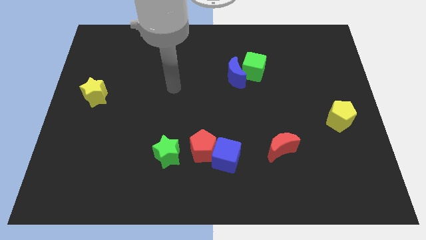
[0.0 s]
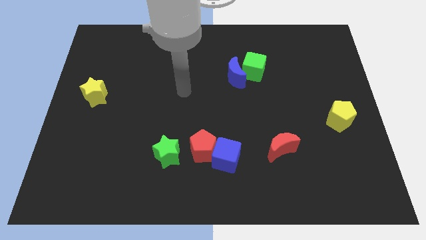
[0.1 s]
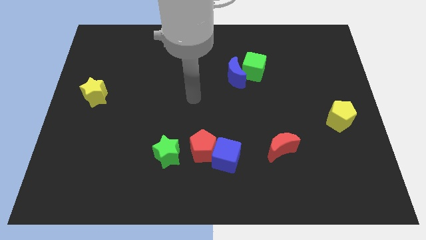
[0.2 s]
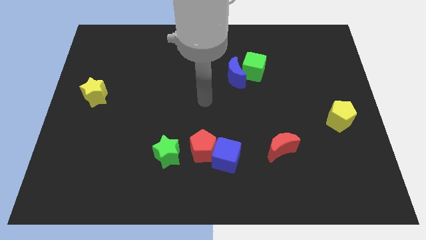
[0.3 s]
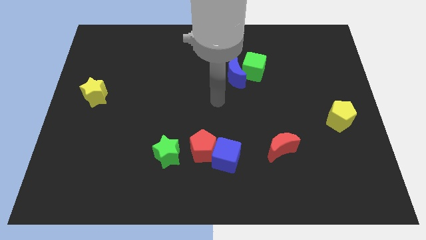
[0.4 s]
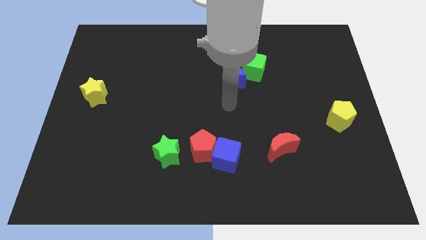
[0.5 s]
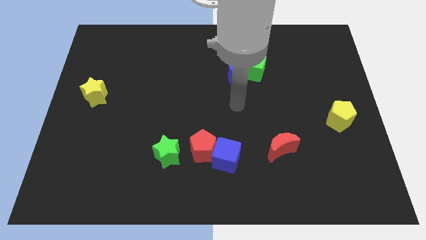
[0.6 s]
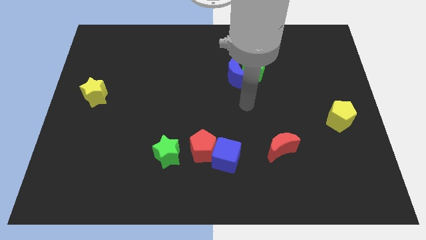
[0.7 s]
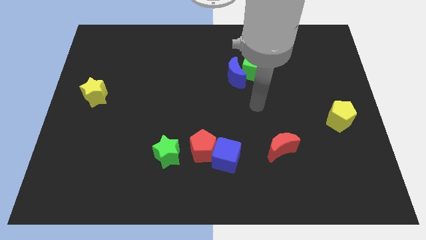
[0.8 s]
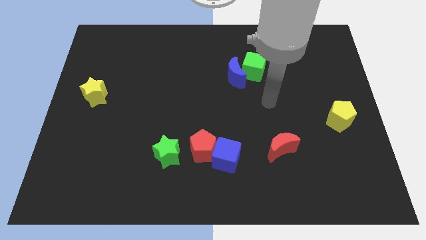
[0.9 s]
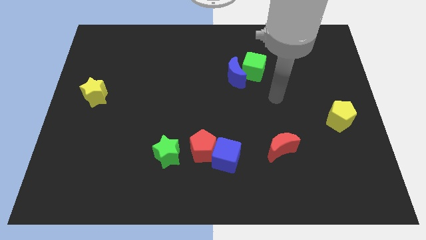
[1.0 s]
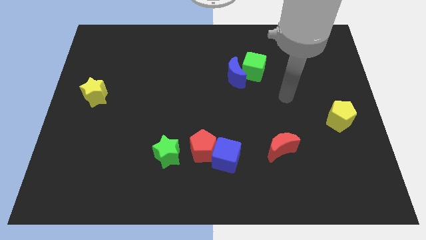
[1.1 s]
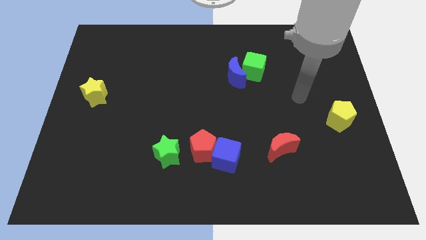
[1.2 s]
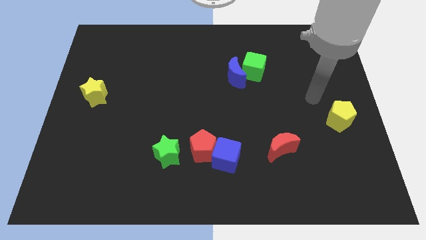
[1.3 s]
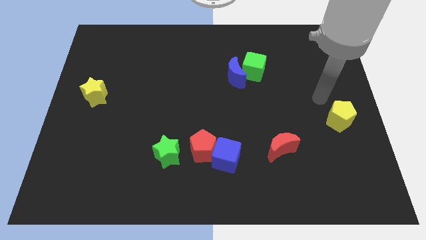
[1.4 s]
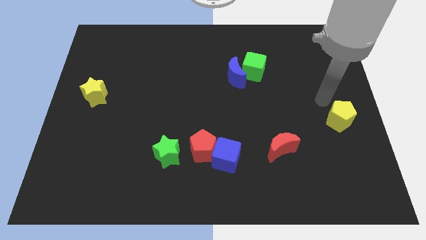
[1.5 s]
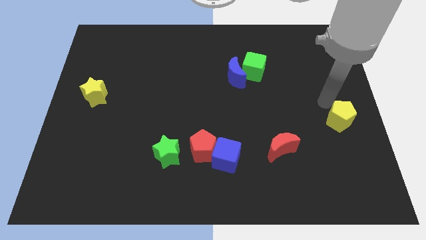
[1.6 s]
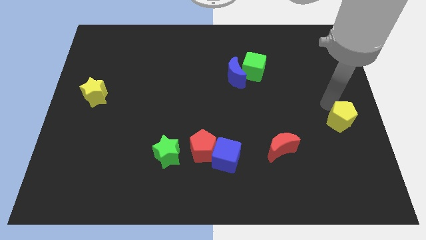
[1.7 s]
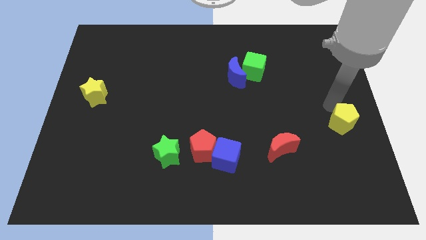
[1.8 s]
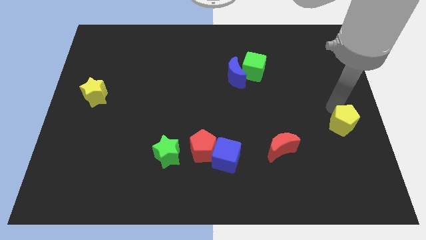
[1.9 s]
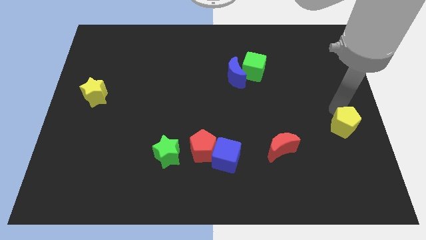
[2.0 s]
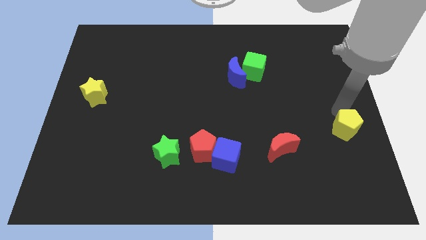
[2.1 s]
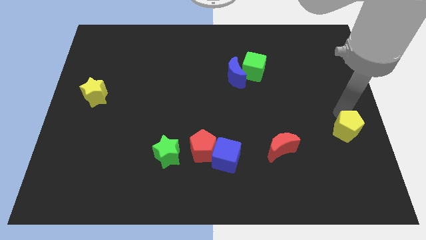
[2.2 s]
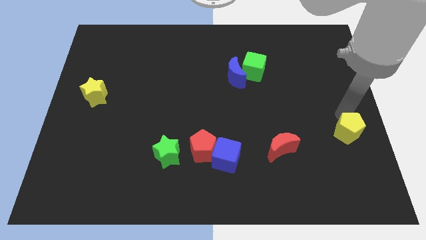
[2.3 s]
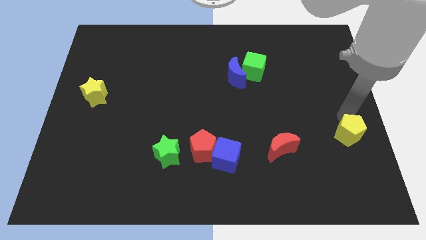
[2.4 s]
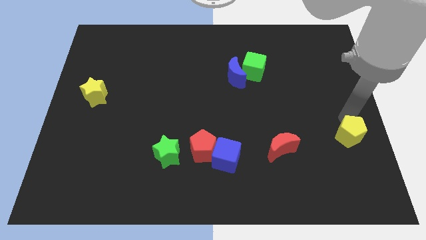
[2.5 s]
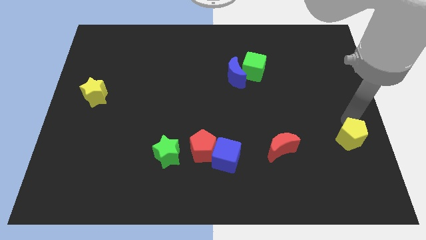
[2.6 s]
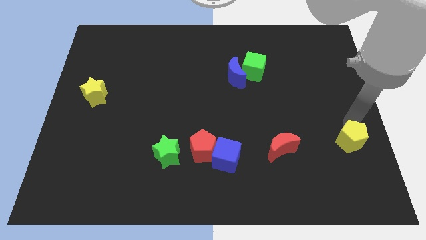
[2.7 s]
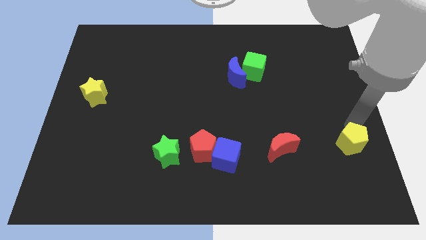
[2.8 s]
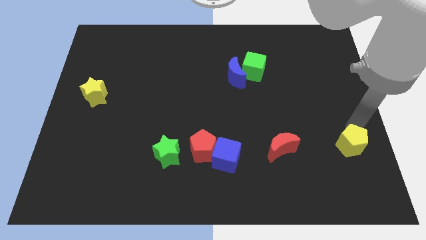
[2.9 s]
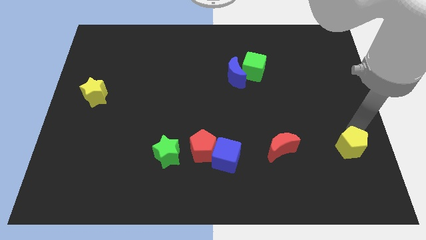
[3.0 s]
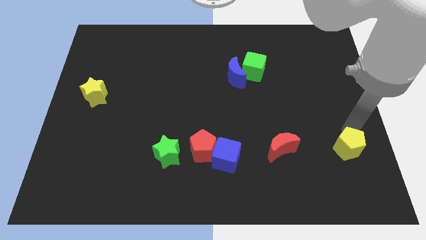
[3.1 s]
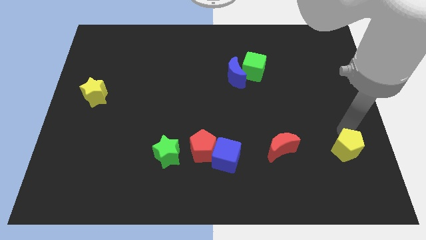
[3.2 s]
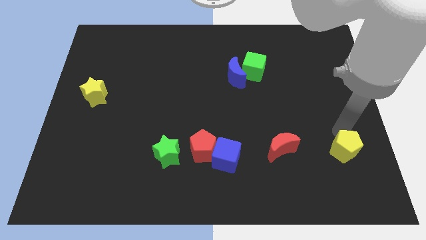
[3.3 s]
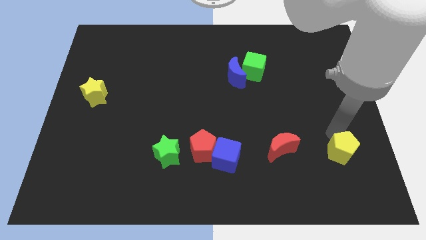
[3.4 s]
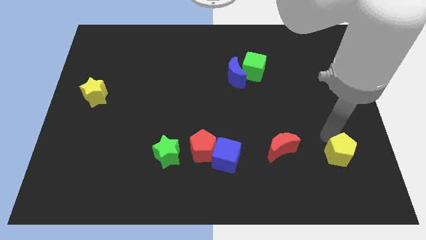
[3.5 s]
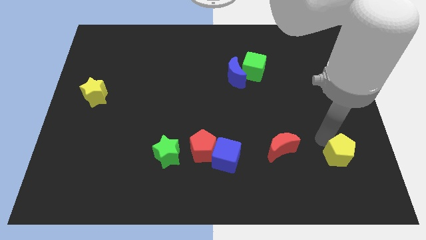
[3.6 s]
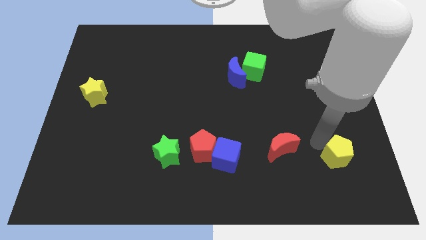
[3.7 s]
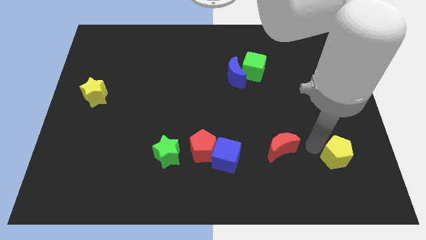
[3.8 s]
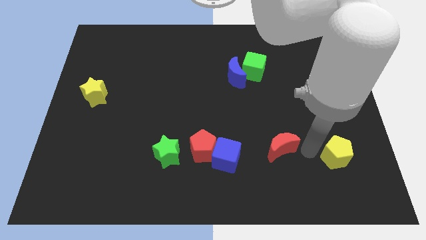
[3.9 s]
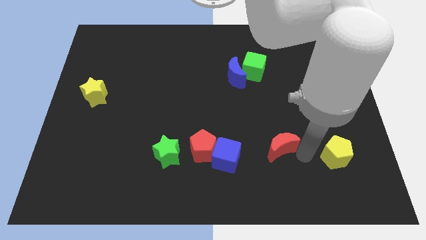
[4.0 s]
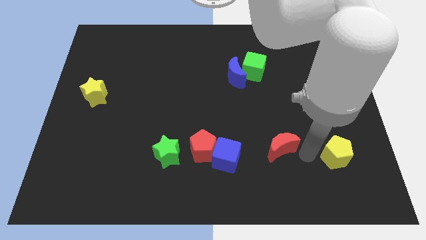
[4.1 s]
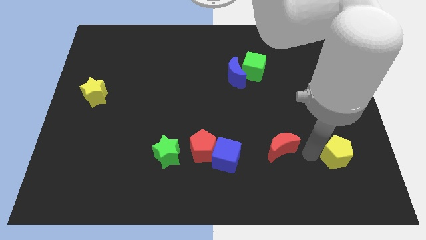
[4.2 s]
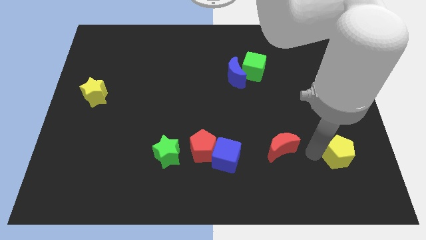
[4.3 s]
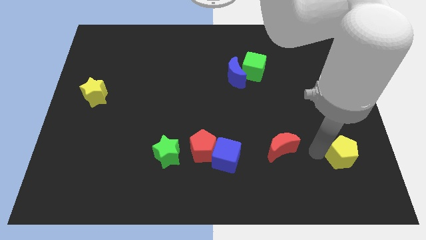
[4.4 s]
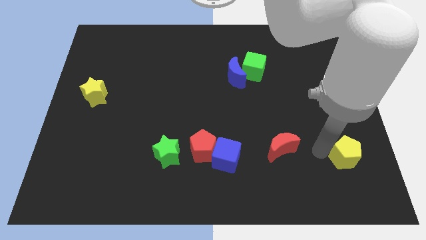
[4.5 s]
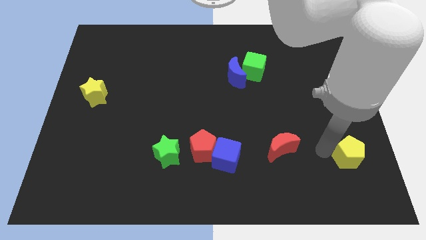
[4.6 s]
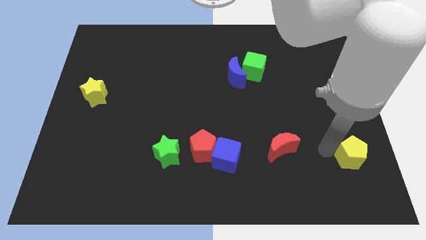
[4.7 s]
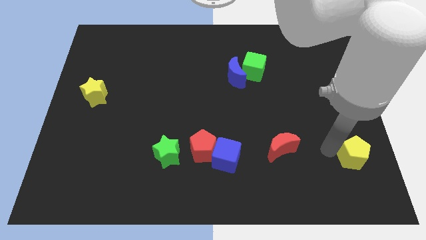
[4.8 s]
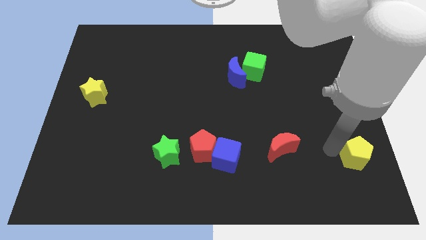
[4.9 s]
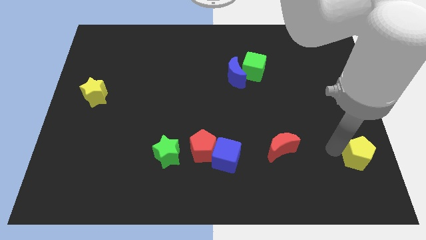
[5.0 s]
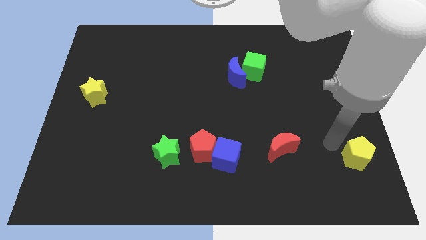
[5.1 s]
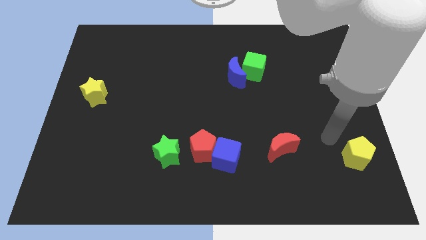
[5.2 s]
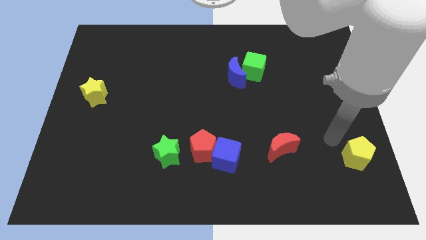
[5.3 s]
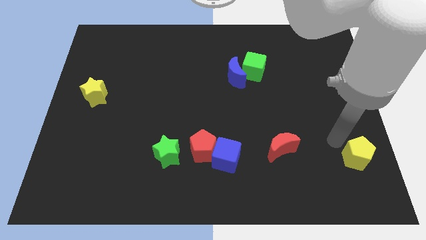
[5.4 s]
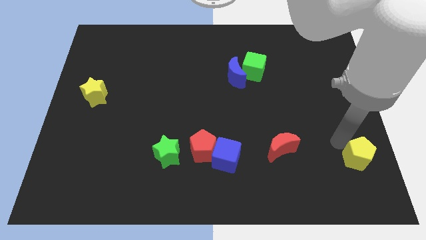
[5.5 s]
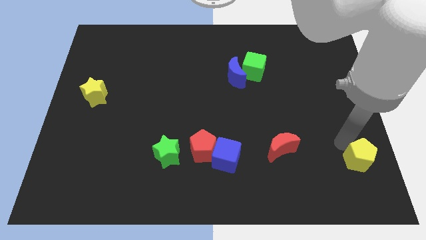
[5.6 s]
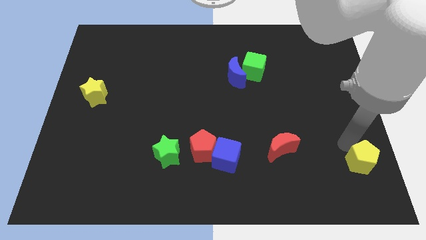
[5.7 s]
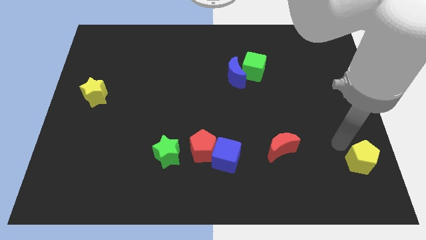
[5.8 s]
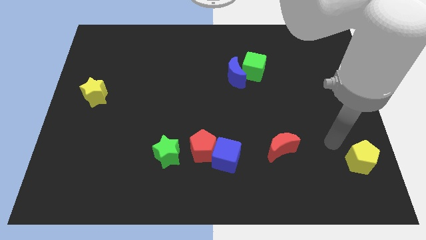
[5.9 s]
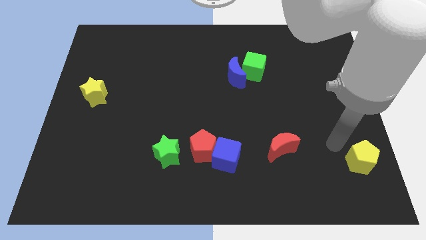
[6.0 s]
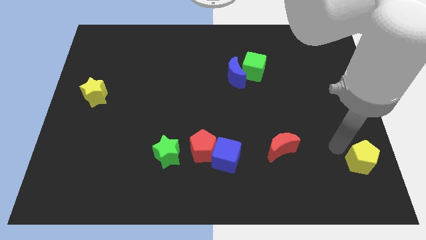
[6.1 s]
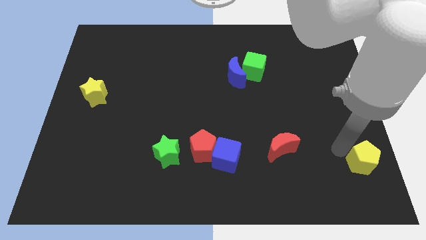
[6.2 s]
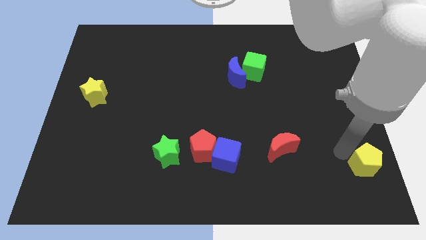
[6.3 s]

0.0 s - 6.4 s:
move the yellow pentagon to the bottom right of the board
